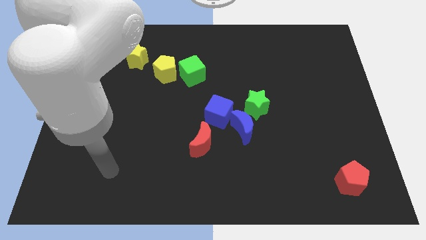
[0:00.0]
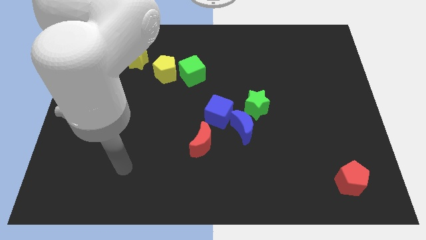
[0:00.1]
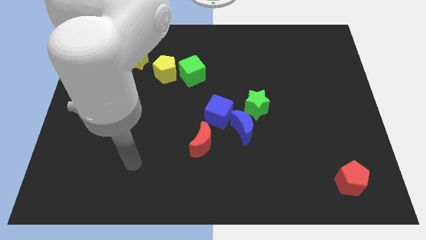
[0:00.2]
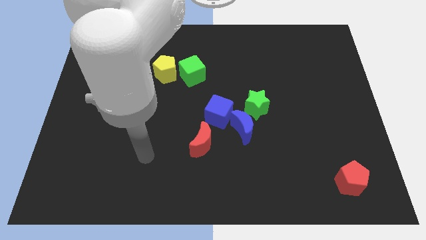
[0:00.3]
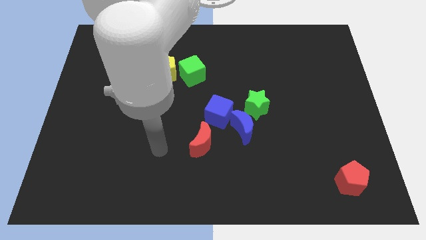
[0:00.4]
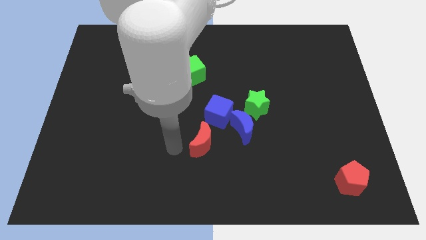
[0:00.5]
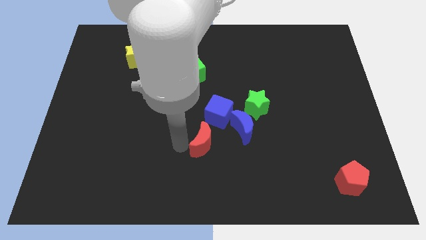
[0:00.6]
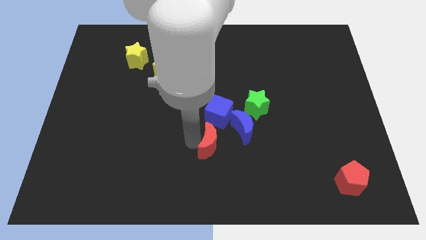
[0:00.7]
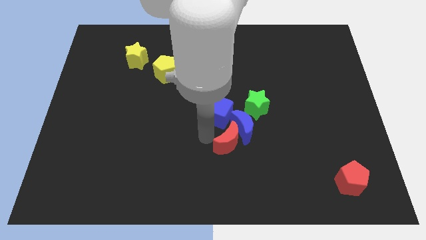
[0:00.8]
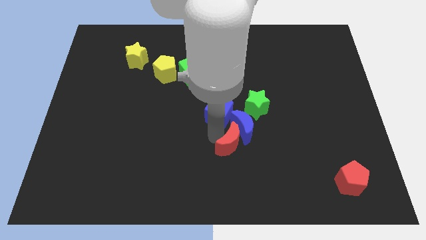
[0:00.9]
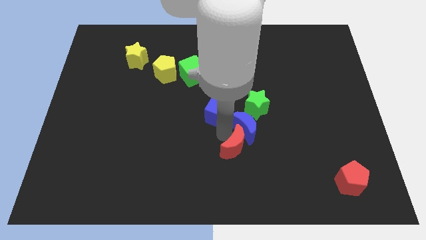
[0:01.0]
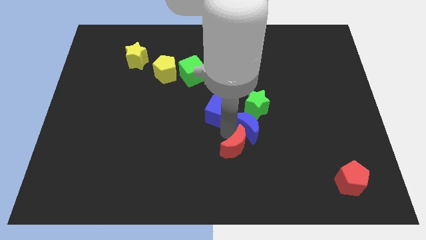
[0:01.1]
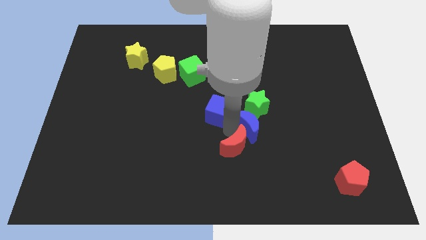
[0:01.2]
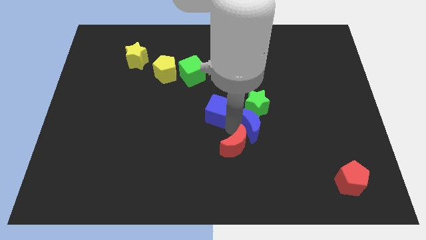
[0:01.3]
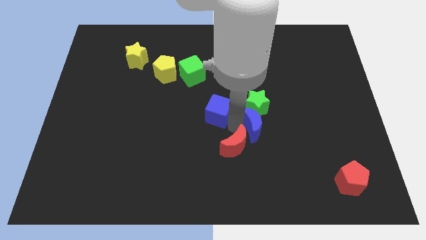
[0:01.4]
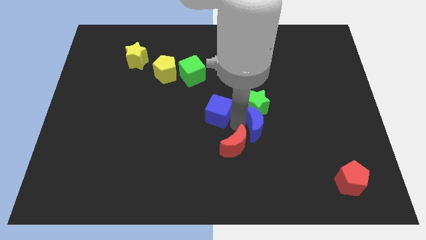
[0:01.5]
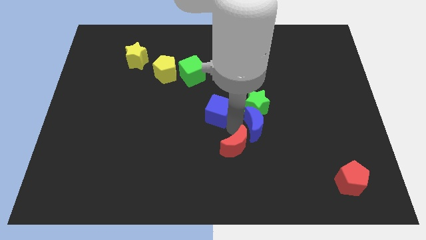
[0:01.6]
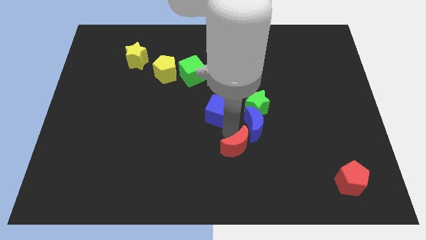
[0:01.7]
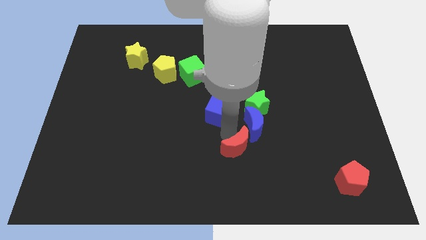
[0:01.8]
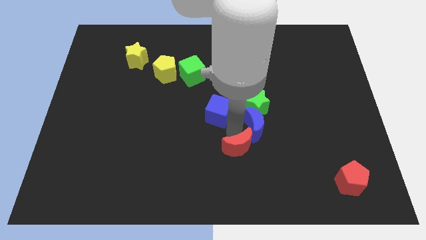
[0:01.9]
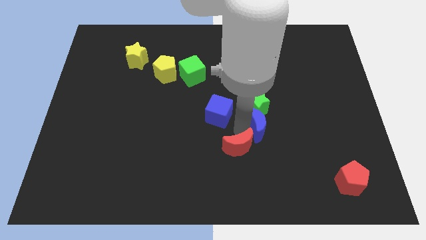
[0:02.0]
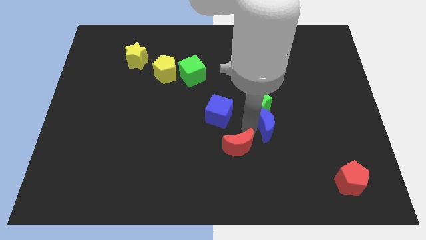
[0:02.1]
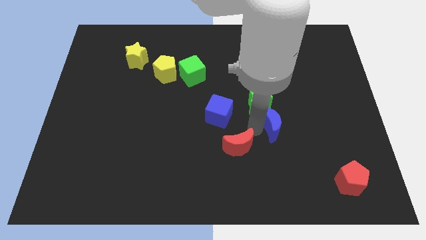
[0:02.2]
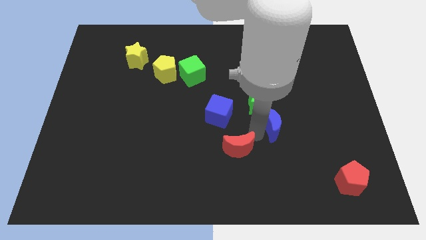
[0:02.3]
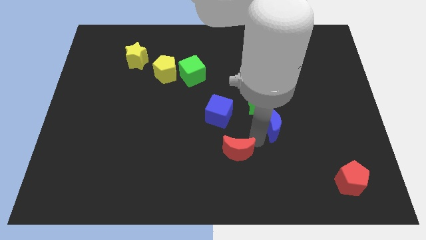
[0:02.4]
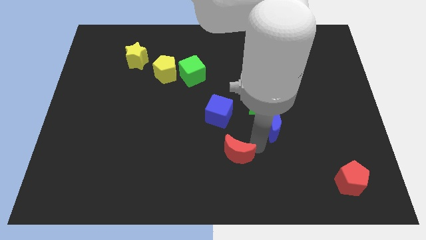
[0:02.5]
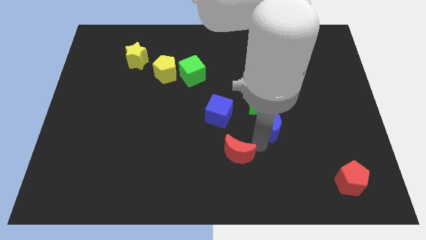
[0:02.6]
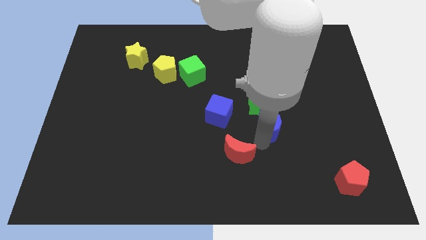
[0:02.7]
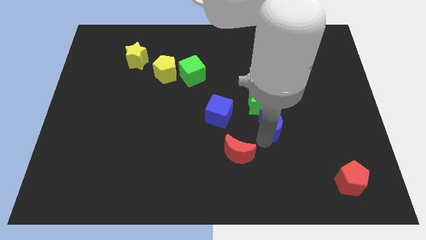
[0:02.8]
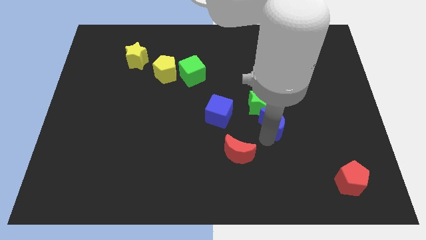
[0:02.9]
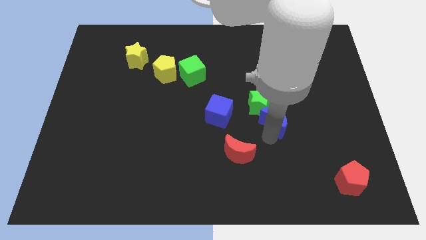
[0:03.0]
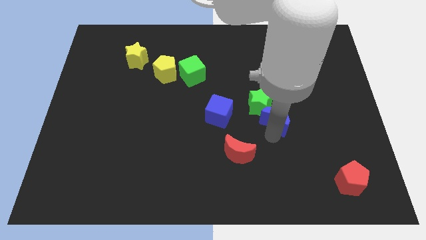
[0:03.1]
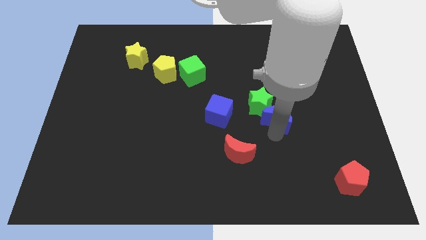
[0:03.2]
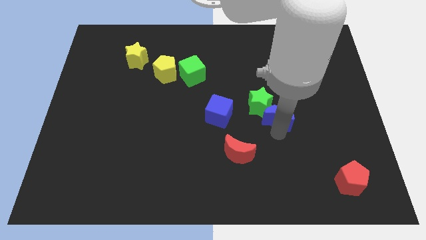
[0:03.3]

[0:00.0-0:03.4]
slide the blue moon upwards and right diagonally a little

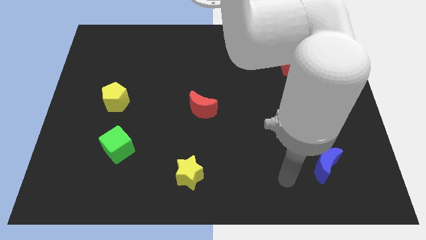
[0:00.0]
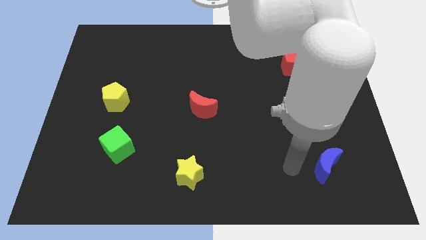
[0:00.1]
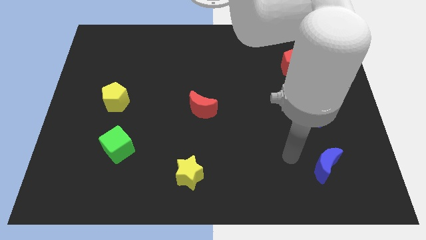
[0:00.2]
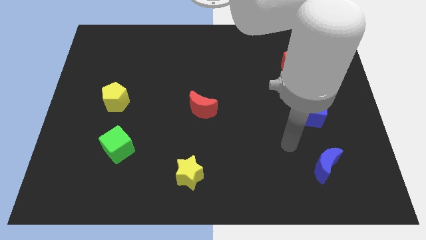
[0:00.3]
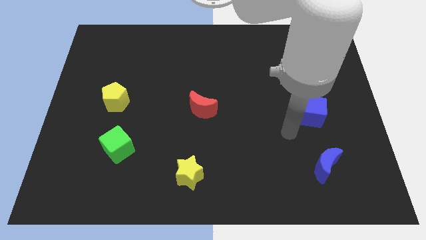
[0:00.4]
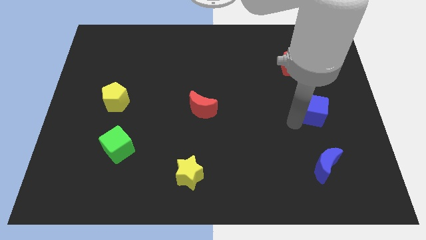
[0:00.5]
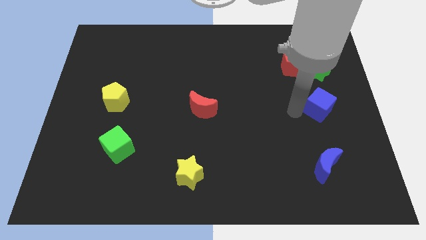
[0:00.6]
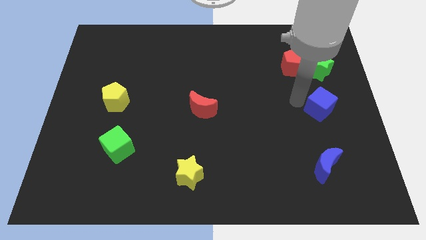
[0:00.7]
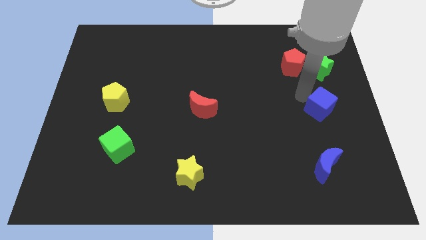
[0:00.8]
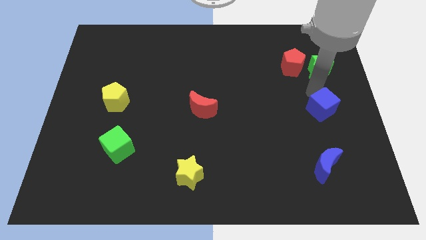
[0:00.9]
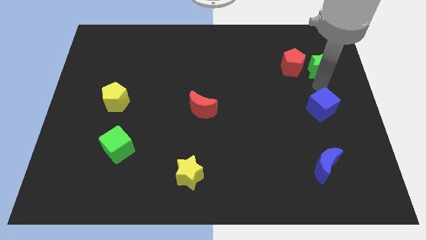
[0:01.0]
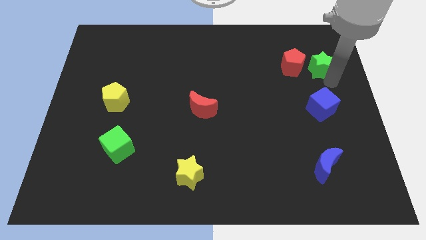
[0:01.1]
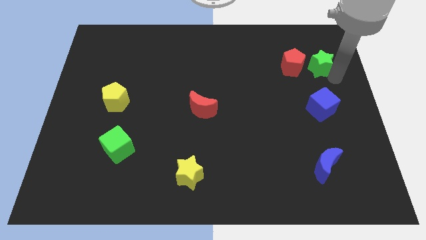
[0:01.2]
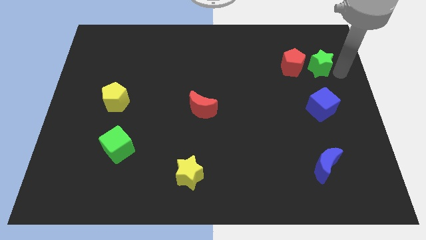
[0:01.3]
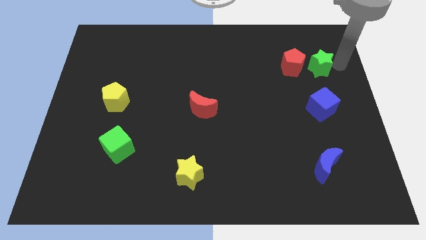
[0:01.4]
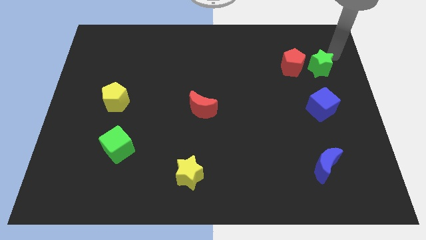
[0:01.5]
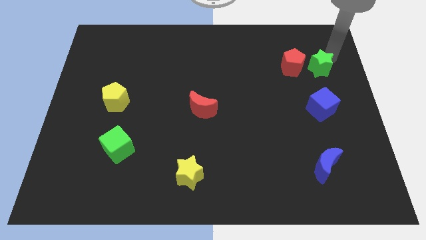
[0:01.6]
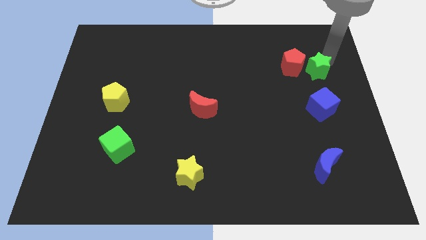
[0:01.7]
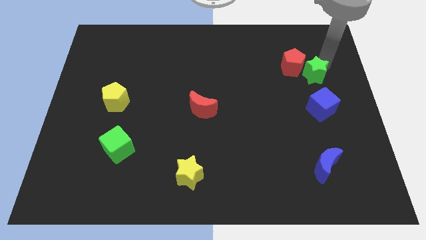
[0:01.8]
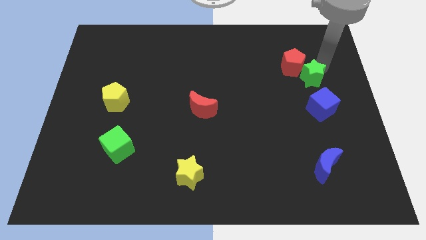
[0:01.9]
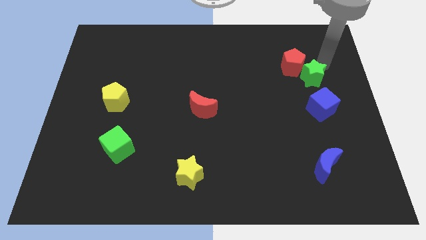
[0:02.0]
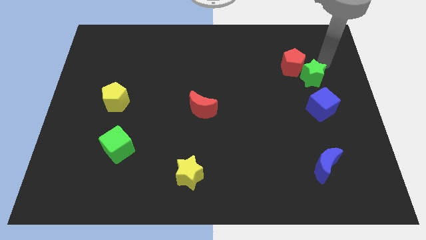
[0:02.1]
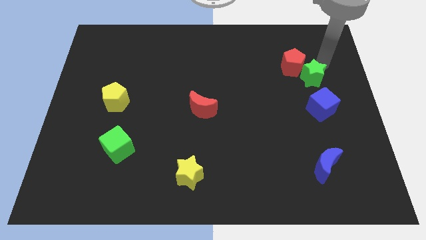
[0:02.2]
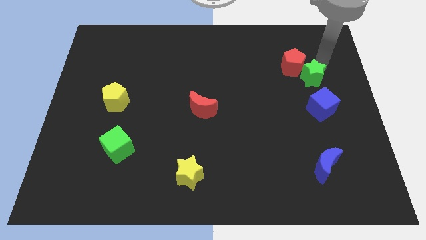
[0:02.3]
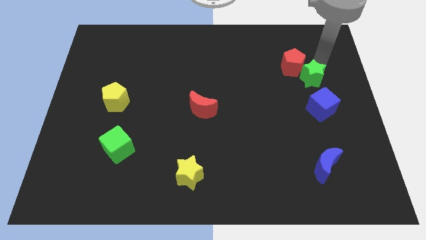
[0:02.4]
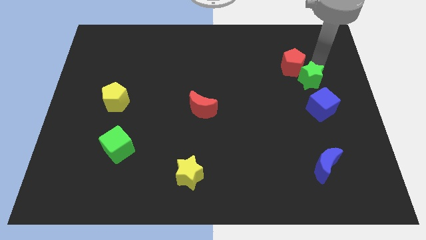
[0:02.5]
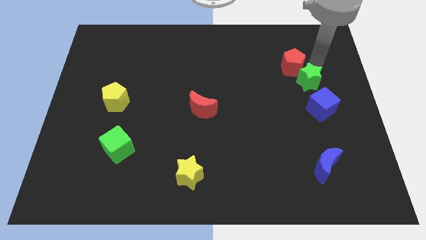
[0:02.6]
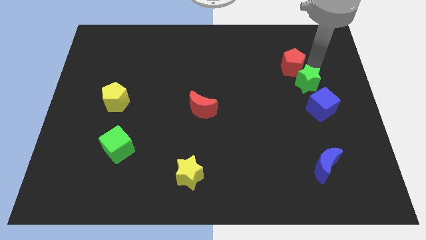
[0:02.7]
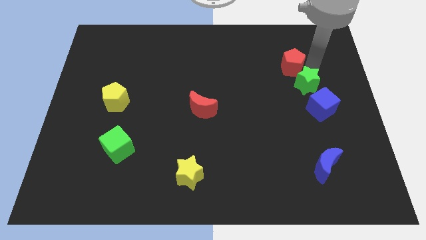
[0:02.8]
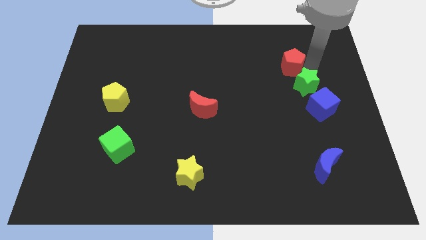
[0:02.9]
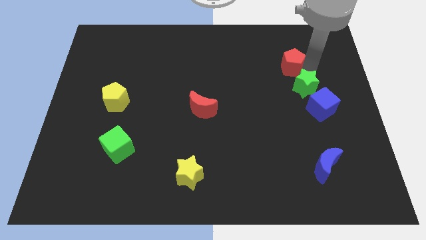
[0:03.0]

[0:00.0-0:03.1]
push the green star slightly downwards and to the left diagonally

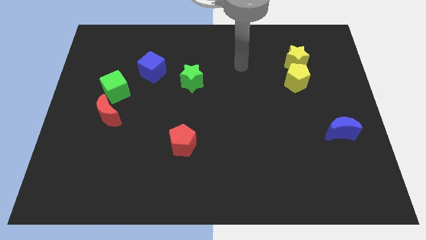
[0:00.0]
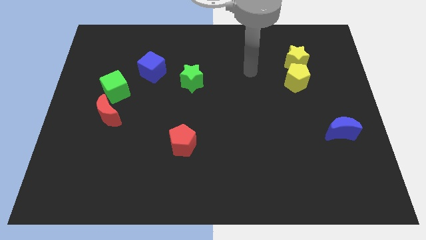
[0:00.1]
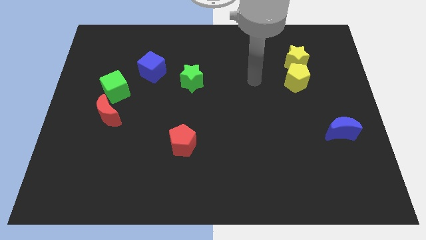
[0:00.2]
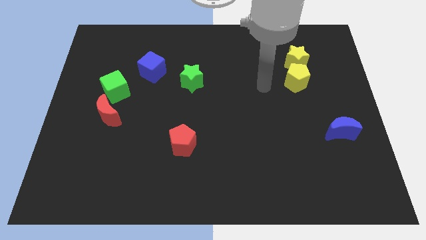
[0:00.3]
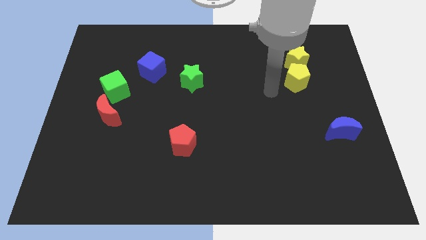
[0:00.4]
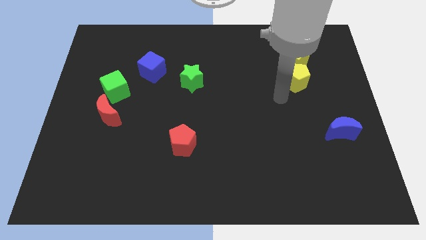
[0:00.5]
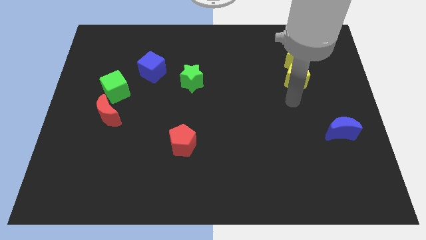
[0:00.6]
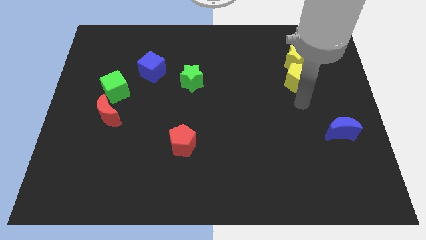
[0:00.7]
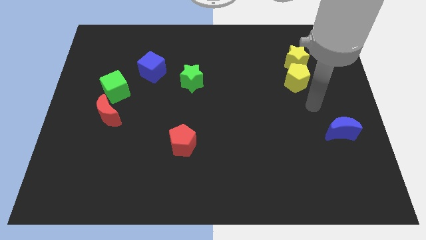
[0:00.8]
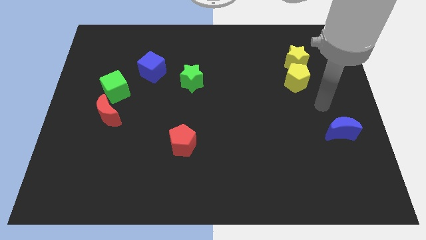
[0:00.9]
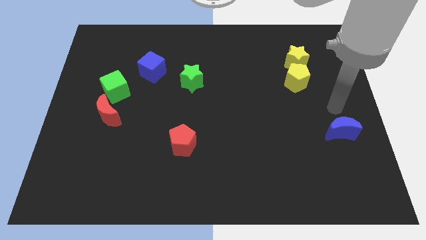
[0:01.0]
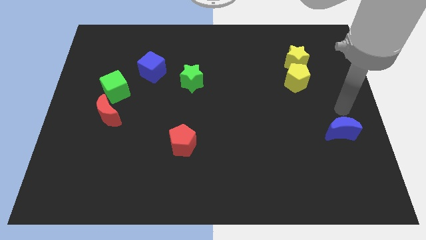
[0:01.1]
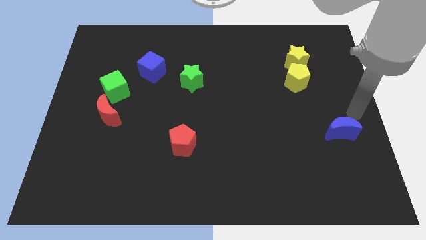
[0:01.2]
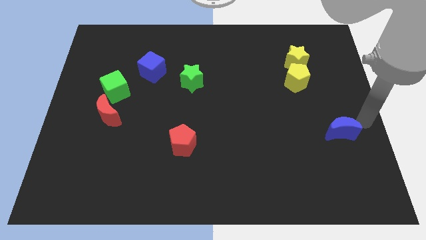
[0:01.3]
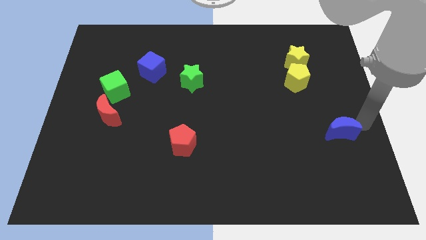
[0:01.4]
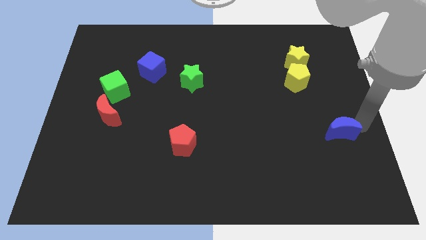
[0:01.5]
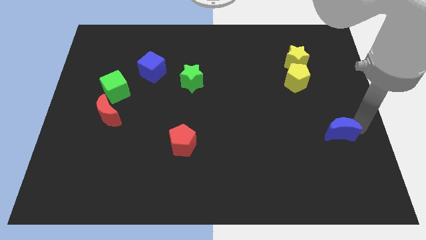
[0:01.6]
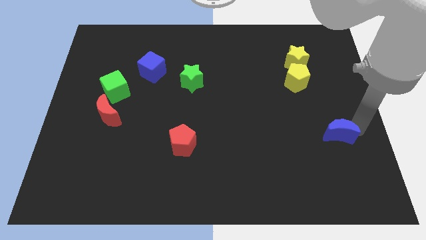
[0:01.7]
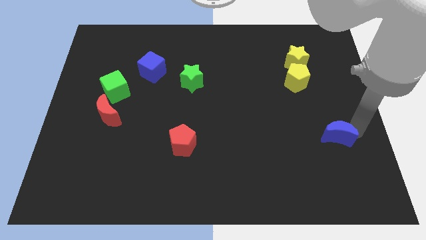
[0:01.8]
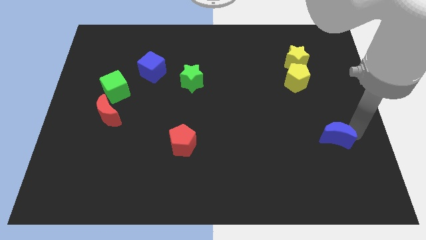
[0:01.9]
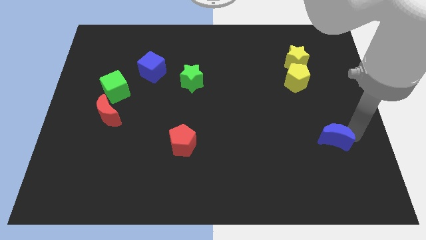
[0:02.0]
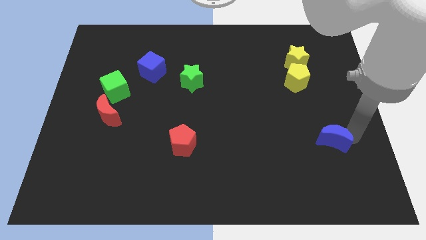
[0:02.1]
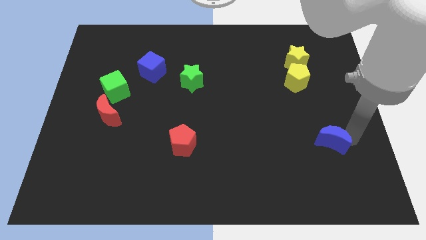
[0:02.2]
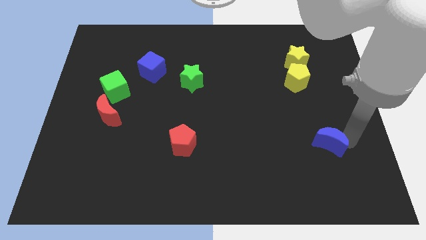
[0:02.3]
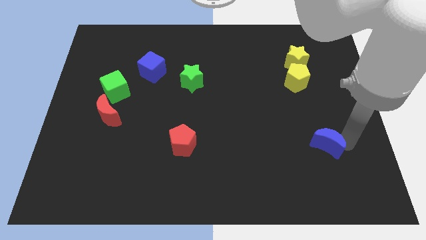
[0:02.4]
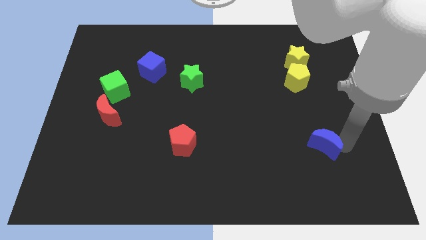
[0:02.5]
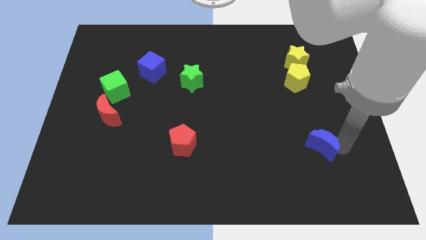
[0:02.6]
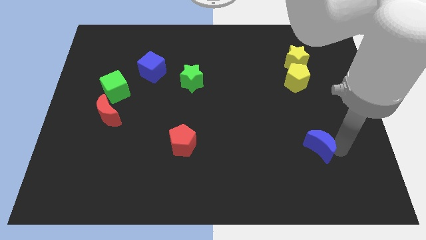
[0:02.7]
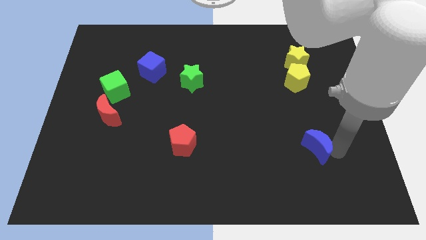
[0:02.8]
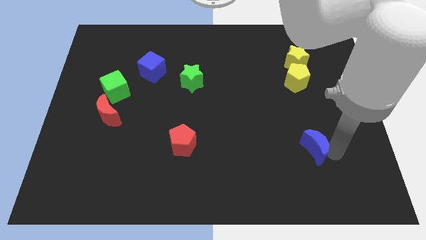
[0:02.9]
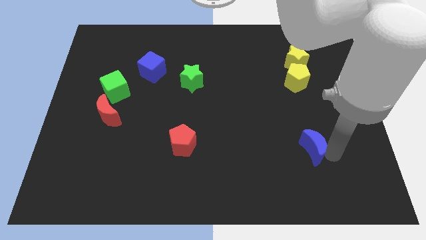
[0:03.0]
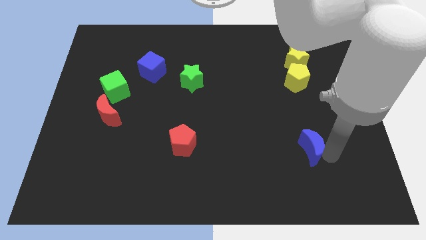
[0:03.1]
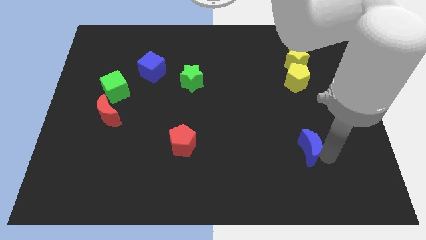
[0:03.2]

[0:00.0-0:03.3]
slightly move the blue moon left
